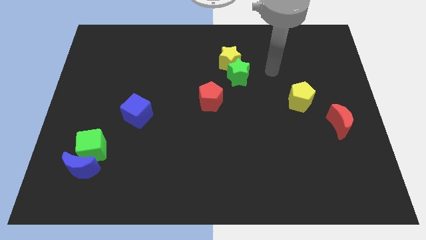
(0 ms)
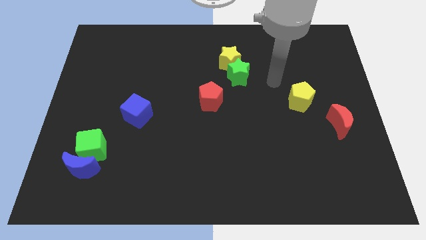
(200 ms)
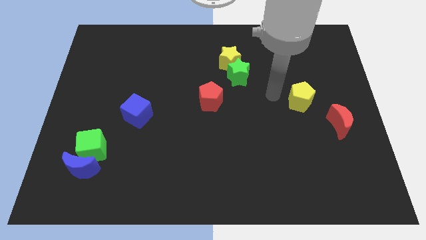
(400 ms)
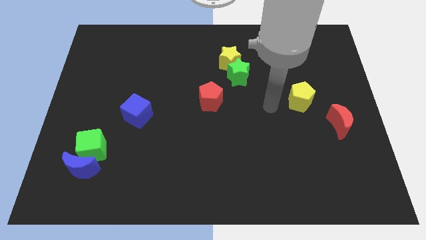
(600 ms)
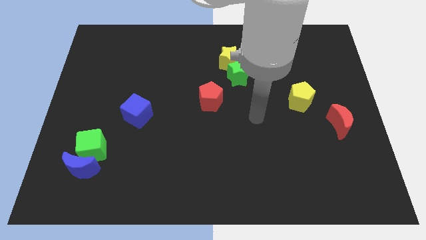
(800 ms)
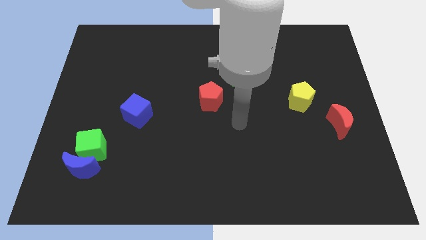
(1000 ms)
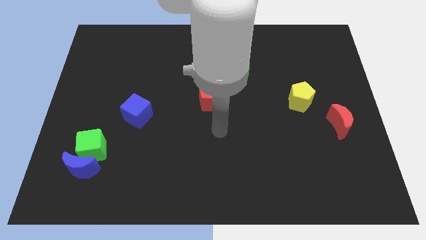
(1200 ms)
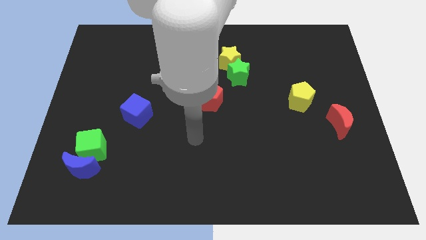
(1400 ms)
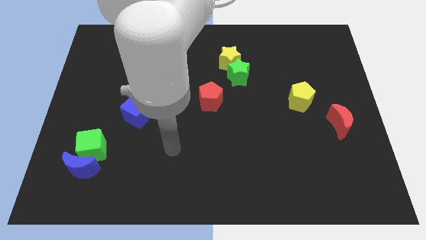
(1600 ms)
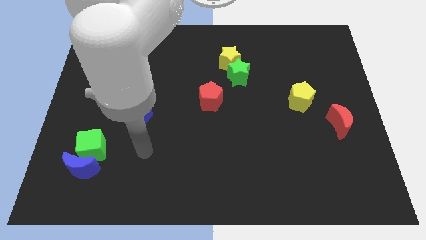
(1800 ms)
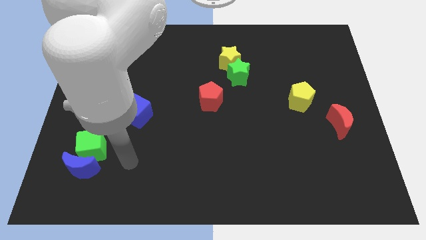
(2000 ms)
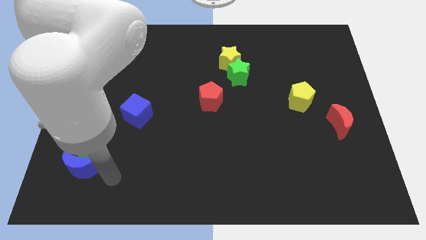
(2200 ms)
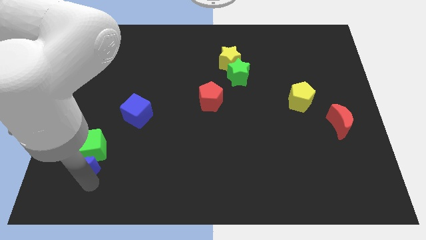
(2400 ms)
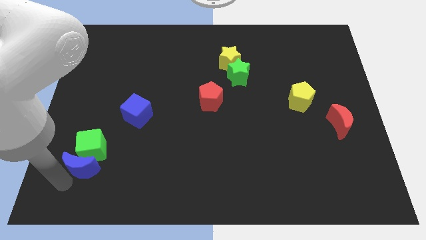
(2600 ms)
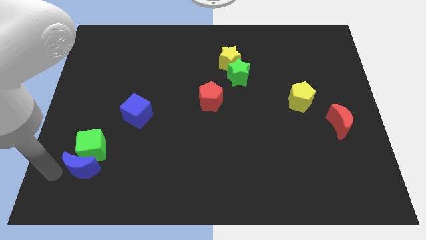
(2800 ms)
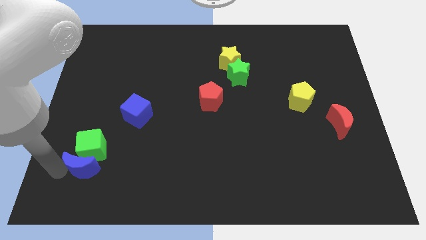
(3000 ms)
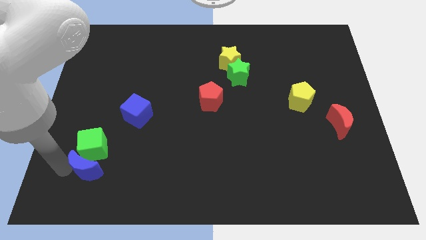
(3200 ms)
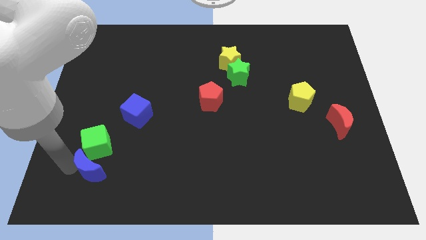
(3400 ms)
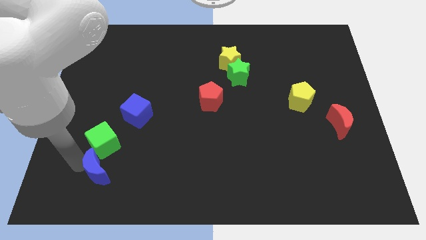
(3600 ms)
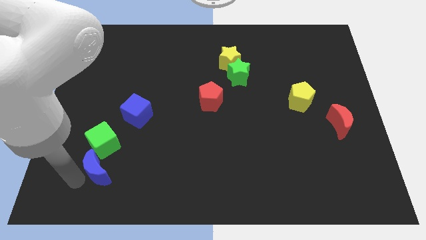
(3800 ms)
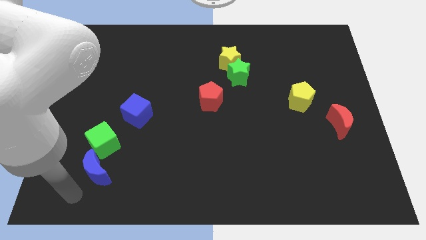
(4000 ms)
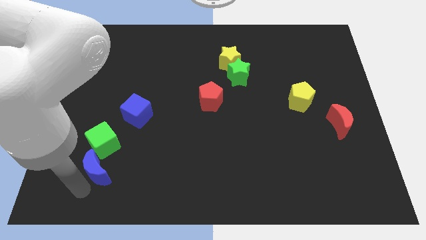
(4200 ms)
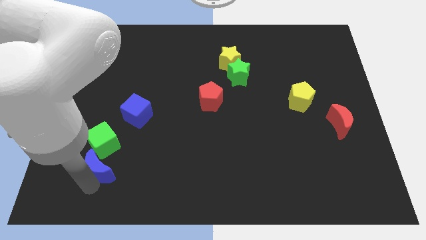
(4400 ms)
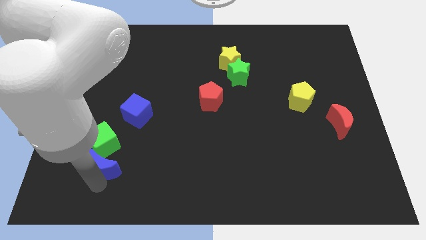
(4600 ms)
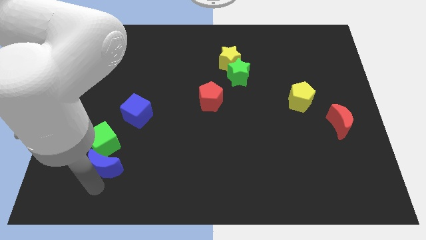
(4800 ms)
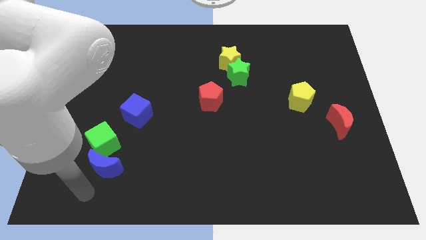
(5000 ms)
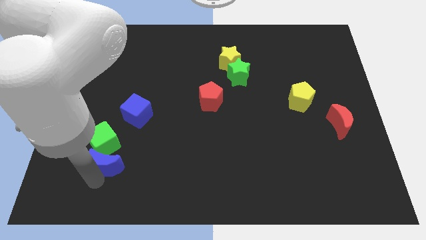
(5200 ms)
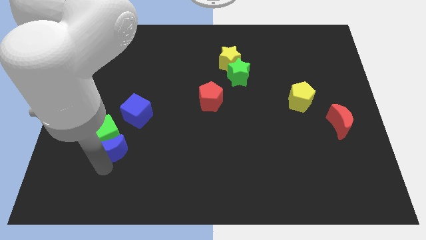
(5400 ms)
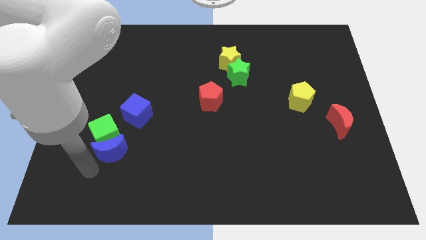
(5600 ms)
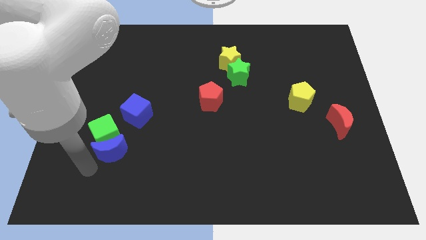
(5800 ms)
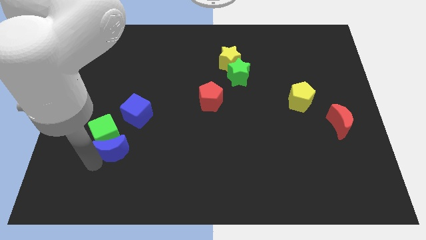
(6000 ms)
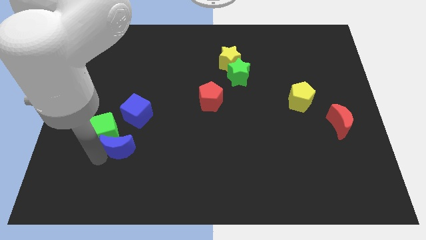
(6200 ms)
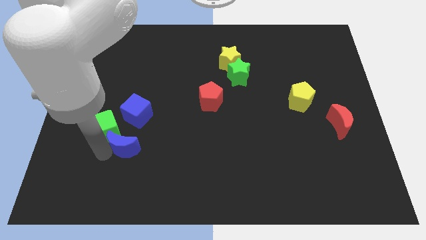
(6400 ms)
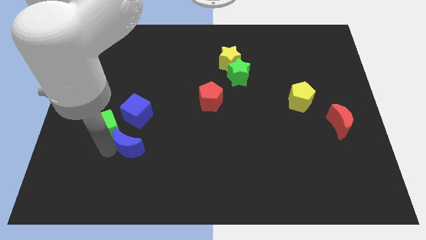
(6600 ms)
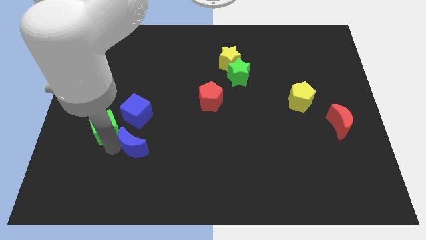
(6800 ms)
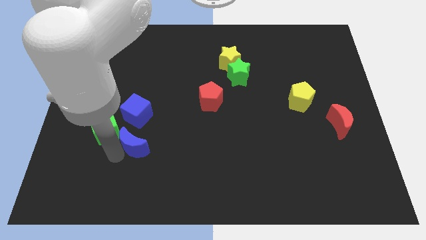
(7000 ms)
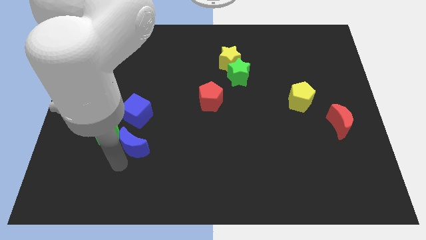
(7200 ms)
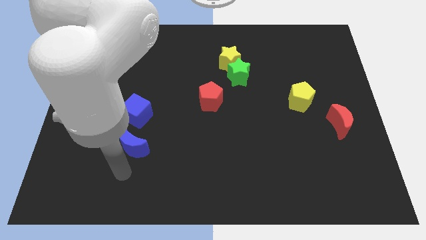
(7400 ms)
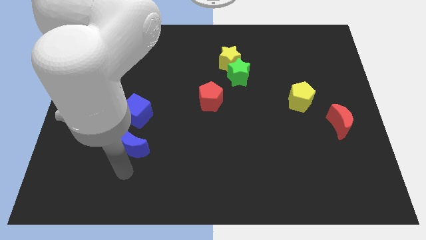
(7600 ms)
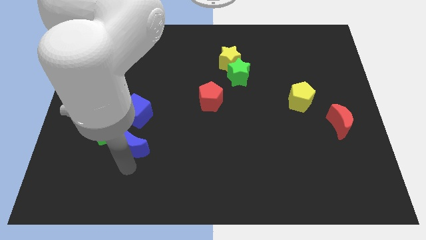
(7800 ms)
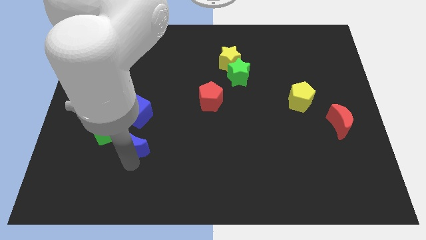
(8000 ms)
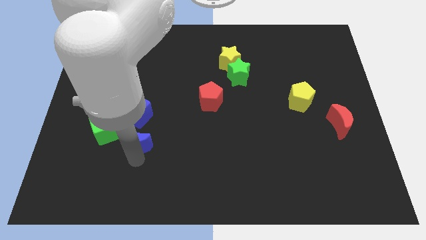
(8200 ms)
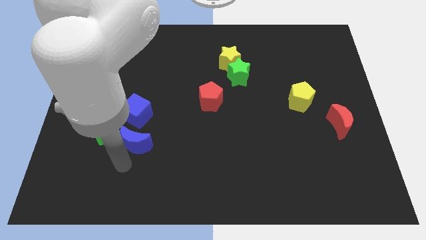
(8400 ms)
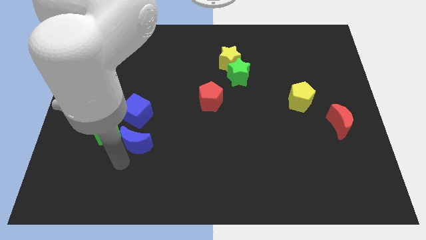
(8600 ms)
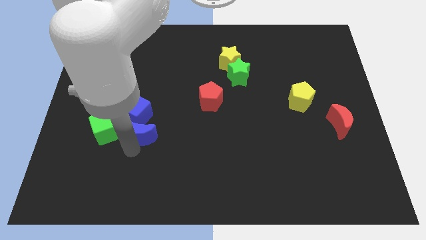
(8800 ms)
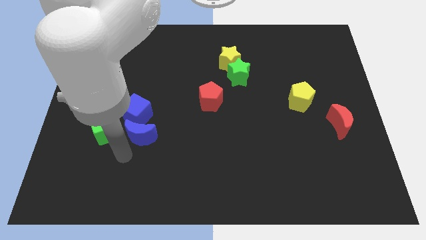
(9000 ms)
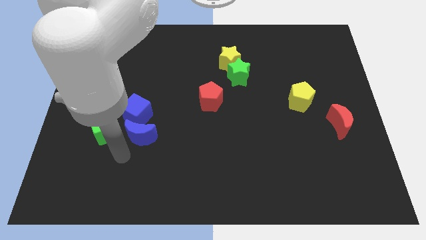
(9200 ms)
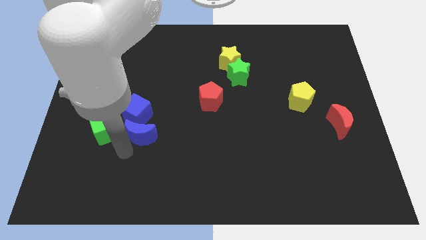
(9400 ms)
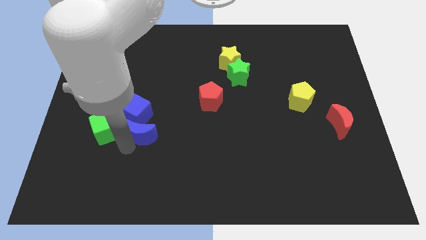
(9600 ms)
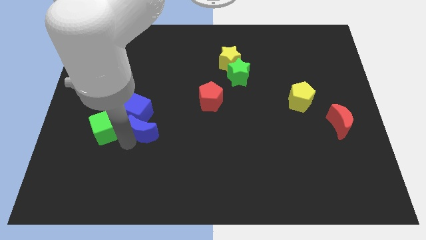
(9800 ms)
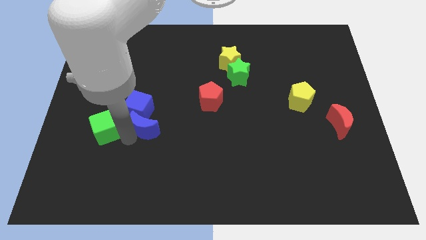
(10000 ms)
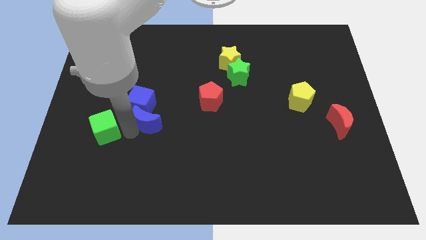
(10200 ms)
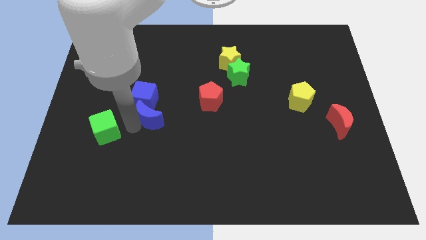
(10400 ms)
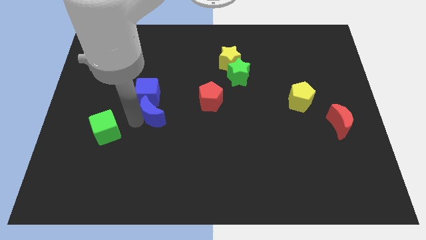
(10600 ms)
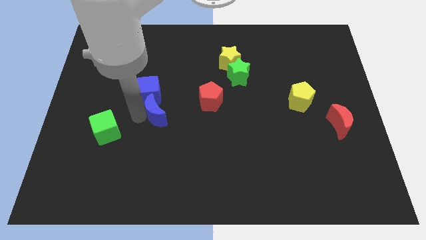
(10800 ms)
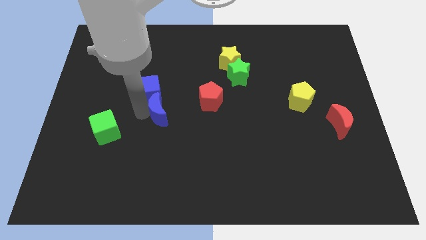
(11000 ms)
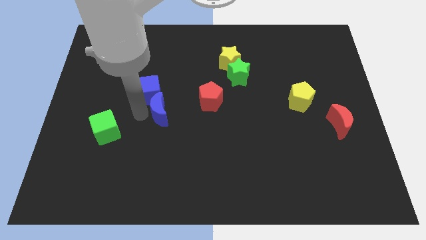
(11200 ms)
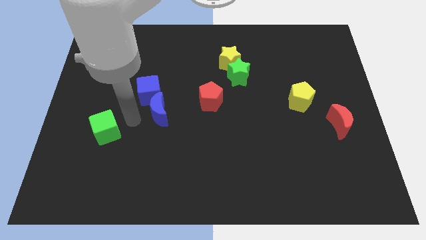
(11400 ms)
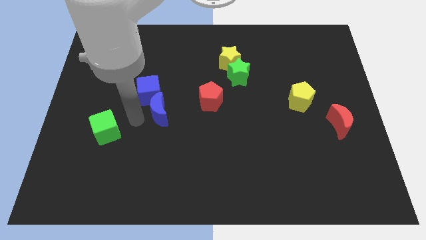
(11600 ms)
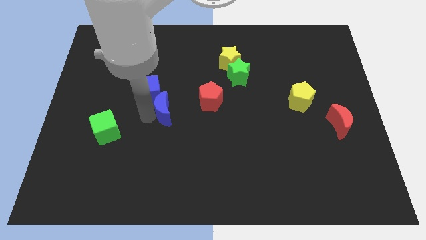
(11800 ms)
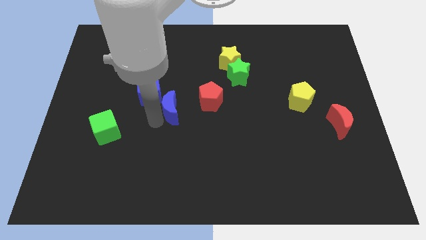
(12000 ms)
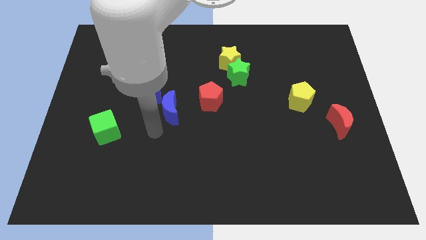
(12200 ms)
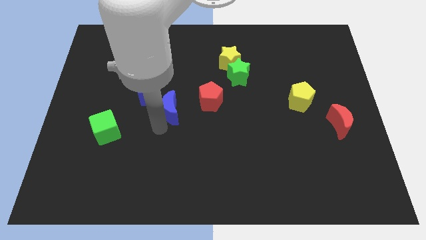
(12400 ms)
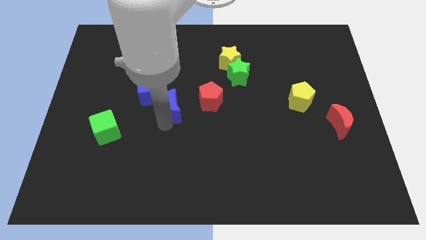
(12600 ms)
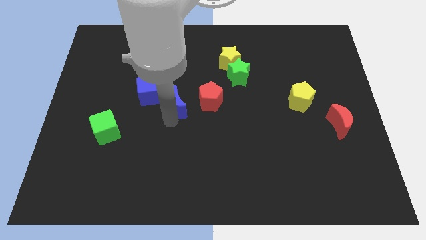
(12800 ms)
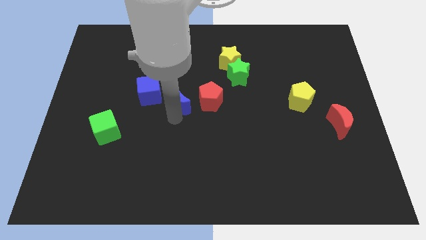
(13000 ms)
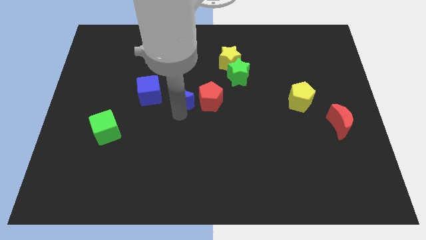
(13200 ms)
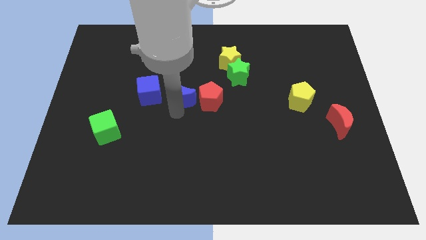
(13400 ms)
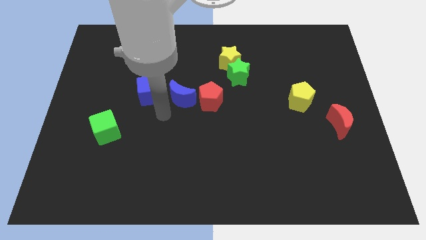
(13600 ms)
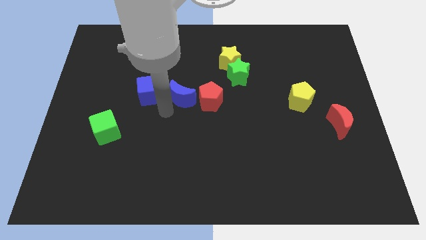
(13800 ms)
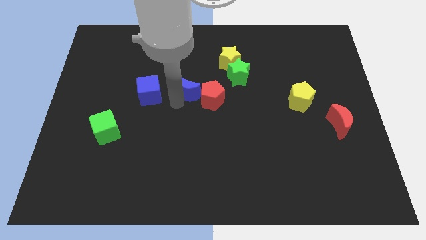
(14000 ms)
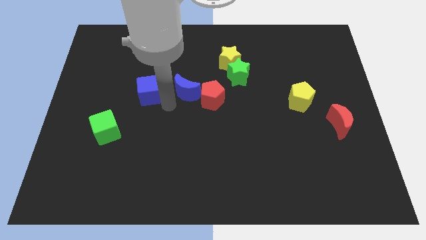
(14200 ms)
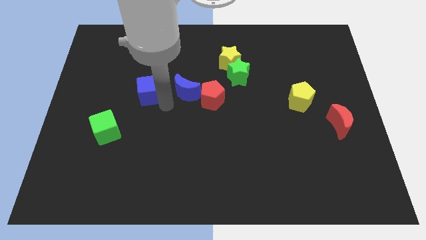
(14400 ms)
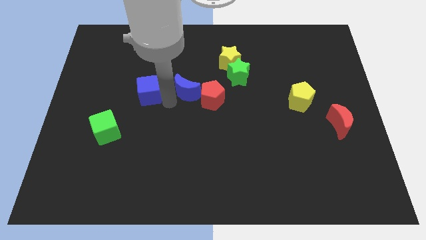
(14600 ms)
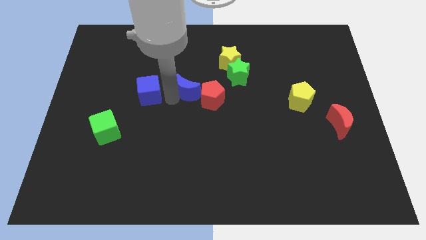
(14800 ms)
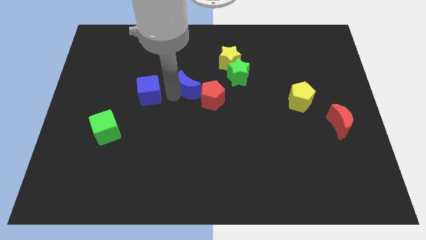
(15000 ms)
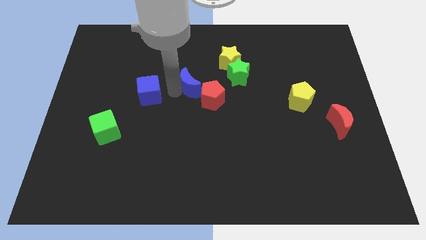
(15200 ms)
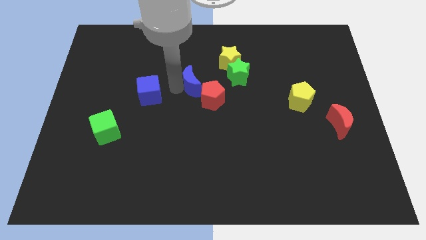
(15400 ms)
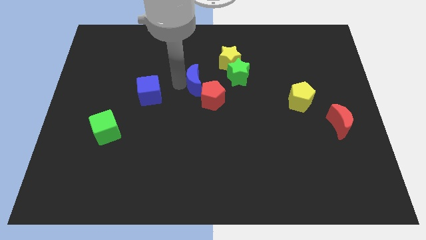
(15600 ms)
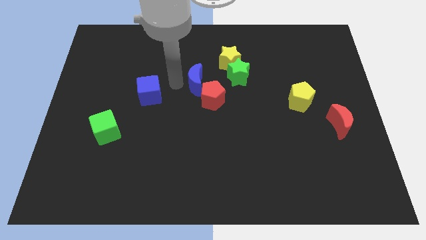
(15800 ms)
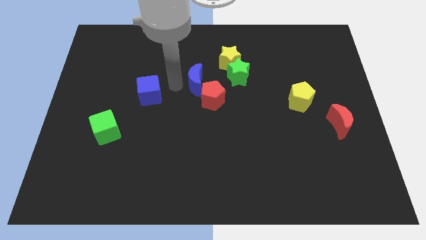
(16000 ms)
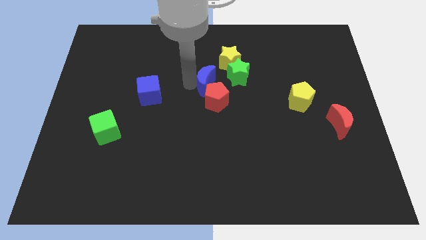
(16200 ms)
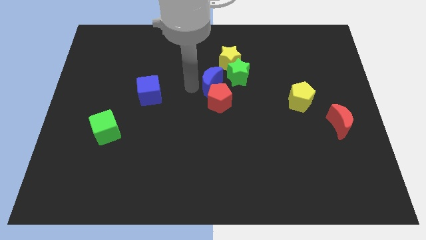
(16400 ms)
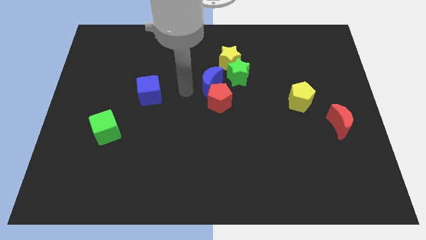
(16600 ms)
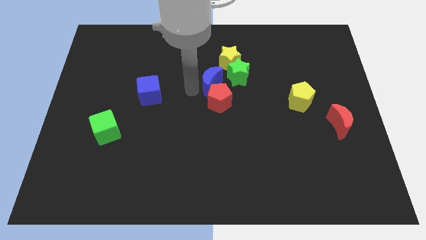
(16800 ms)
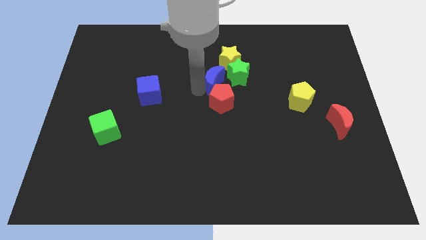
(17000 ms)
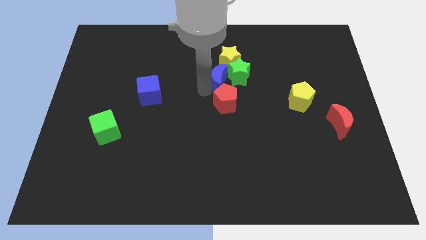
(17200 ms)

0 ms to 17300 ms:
put the blue moon close to the green star
